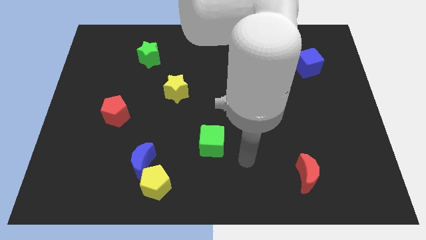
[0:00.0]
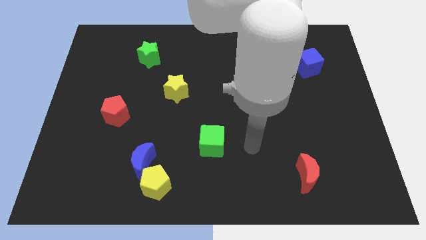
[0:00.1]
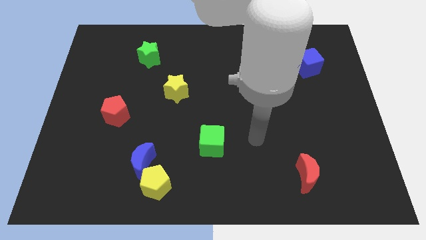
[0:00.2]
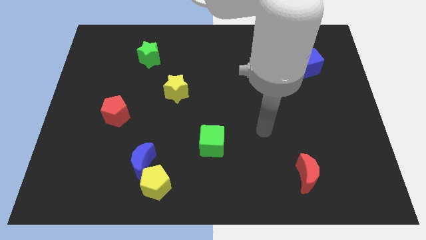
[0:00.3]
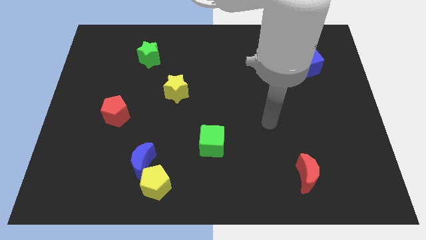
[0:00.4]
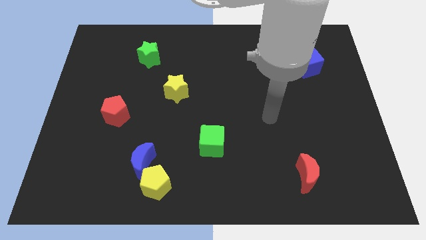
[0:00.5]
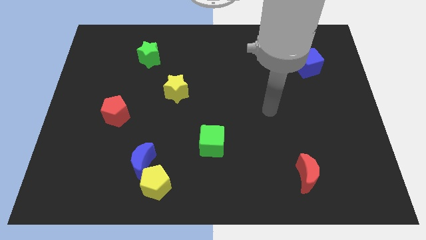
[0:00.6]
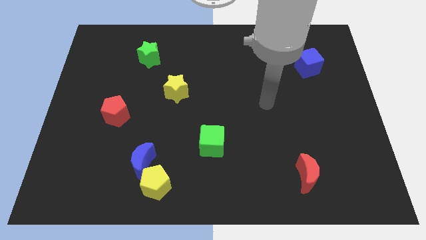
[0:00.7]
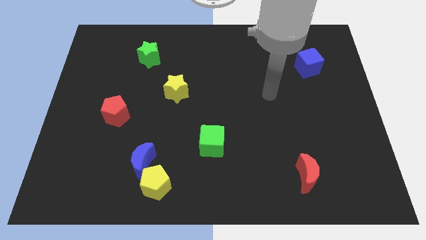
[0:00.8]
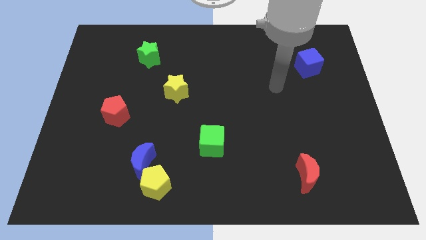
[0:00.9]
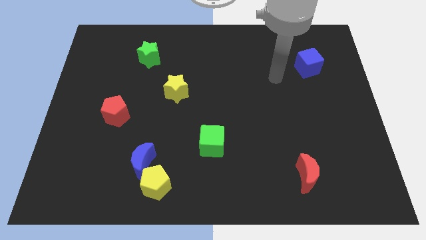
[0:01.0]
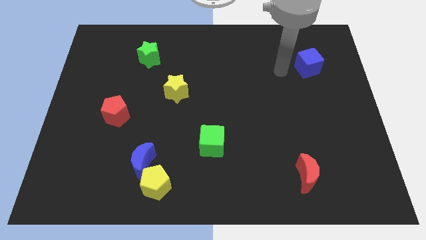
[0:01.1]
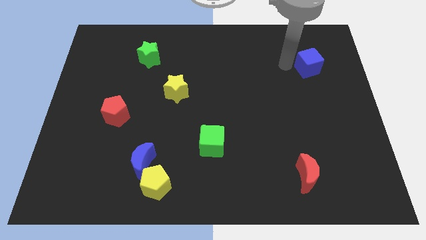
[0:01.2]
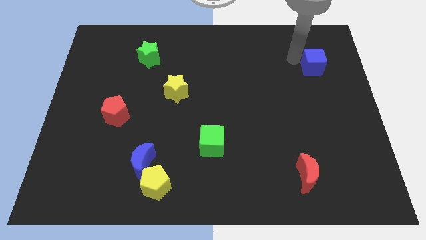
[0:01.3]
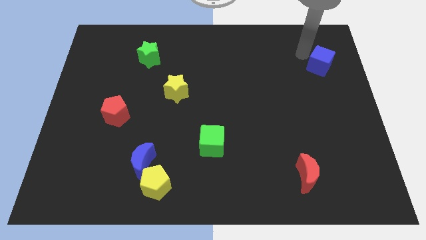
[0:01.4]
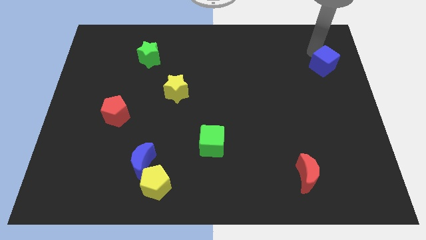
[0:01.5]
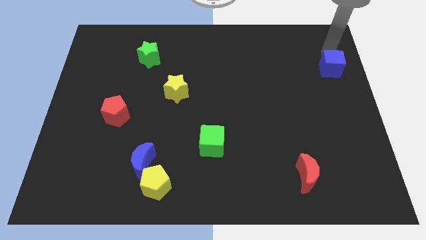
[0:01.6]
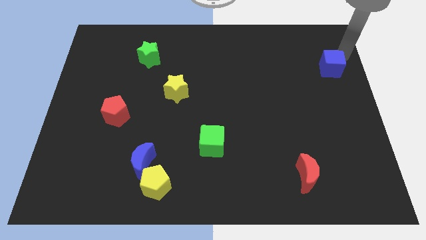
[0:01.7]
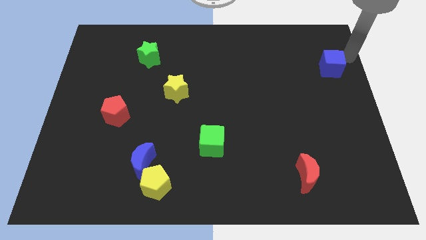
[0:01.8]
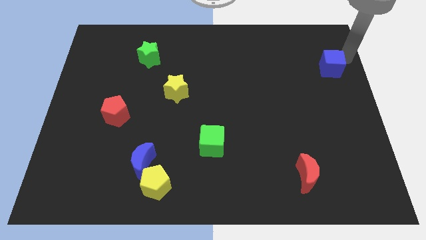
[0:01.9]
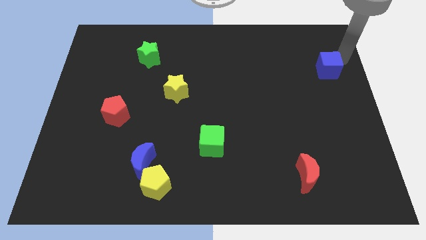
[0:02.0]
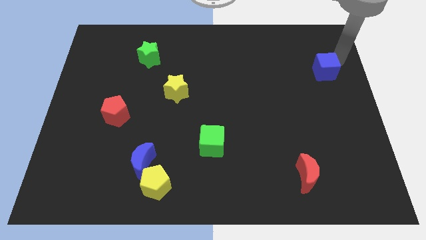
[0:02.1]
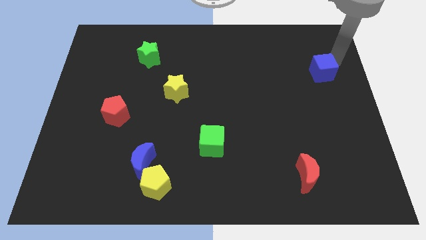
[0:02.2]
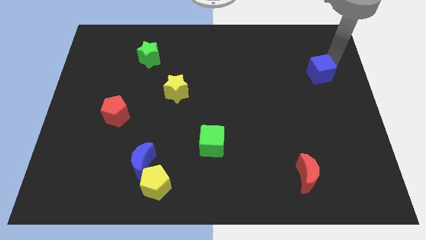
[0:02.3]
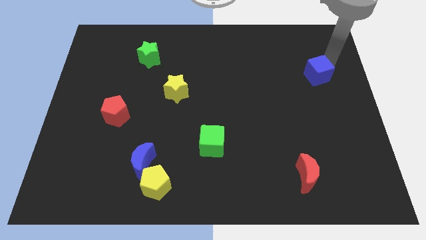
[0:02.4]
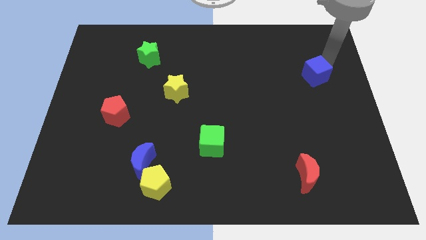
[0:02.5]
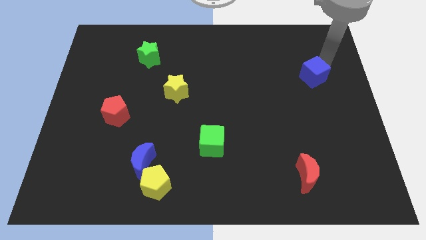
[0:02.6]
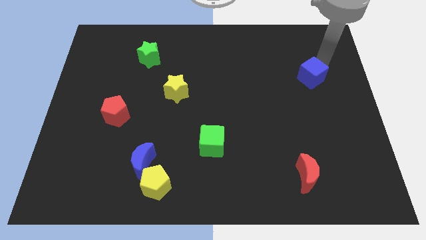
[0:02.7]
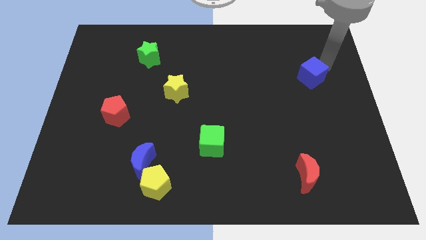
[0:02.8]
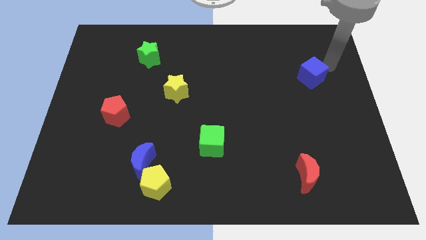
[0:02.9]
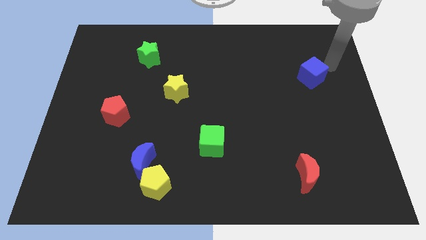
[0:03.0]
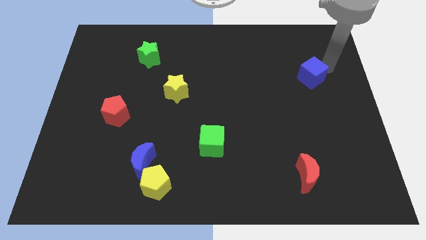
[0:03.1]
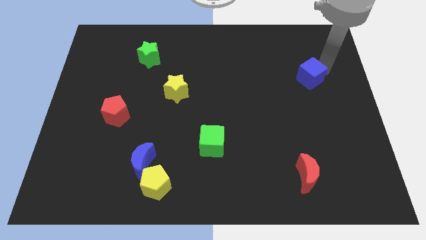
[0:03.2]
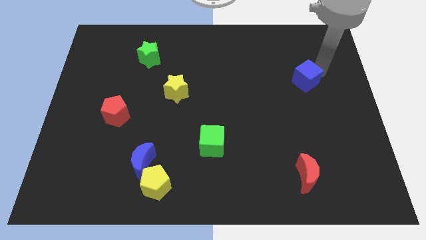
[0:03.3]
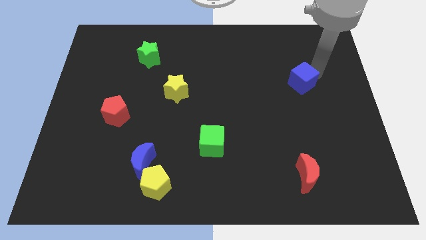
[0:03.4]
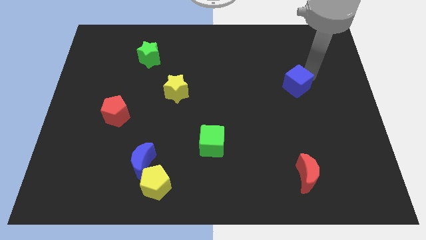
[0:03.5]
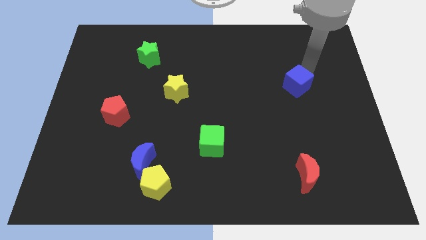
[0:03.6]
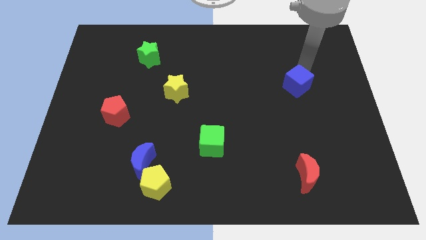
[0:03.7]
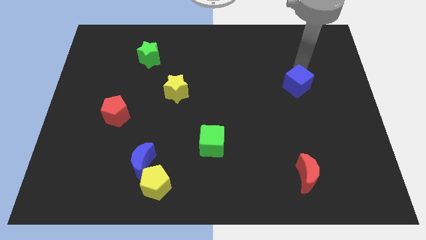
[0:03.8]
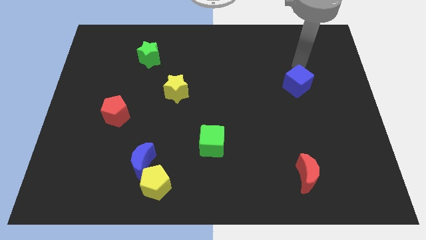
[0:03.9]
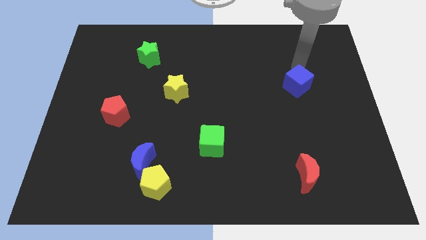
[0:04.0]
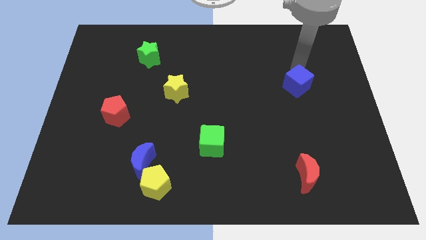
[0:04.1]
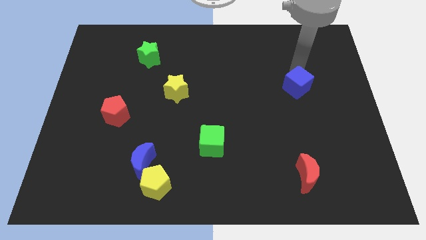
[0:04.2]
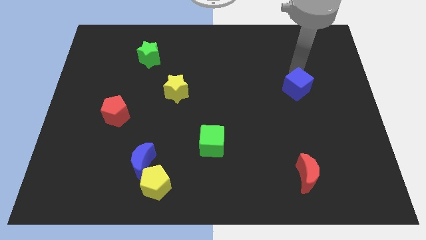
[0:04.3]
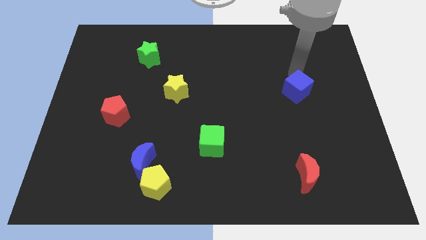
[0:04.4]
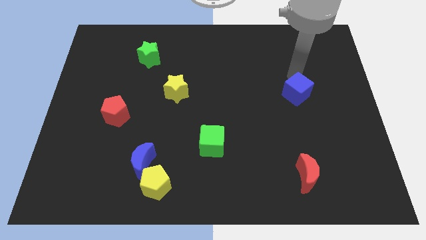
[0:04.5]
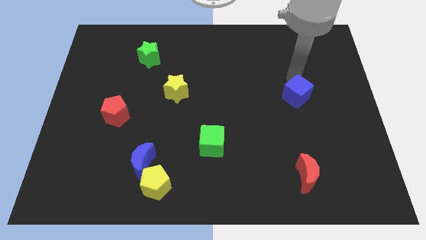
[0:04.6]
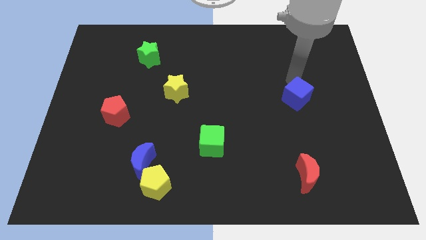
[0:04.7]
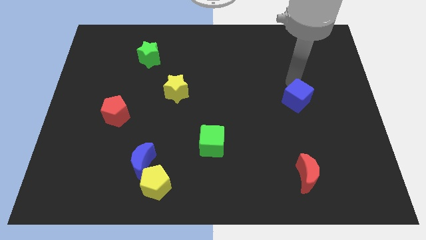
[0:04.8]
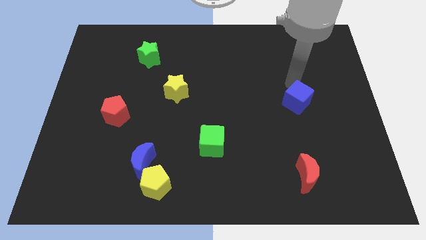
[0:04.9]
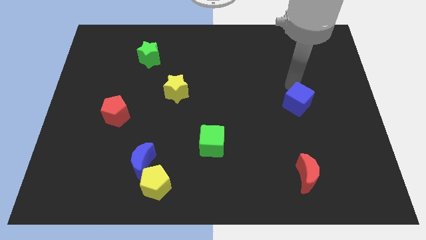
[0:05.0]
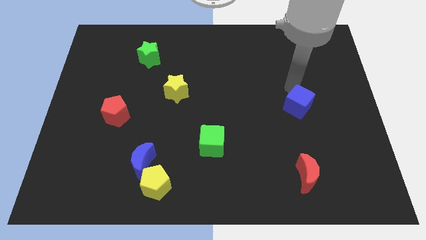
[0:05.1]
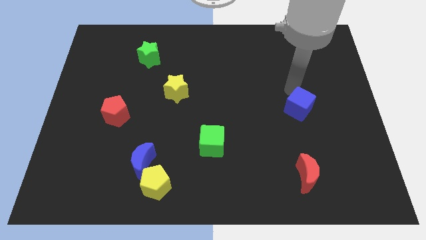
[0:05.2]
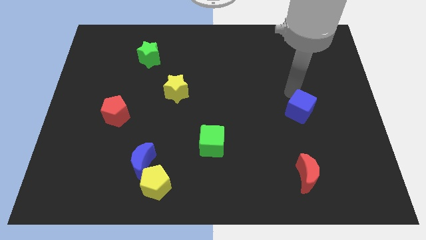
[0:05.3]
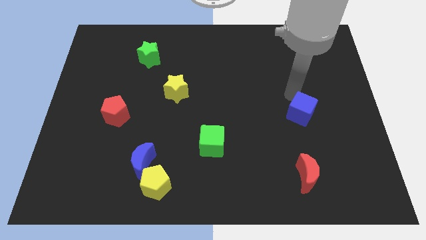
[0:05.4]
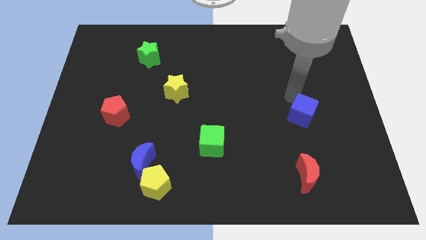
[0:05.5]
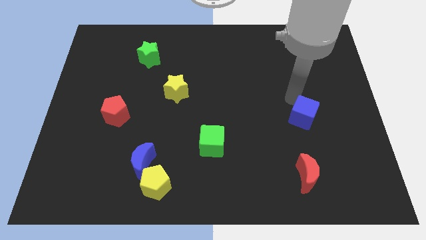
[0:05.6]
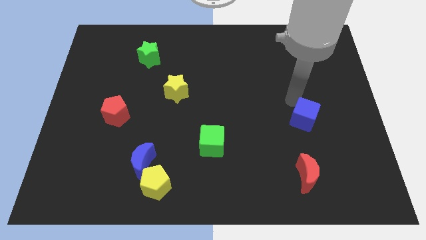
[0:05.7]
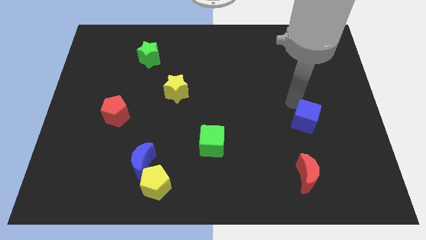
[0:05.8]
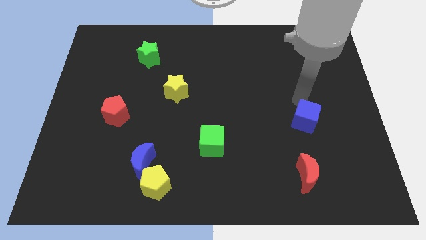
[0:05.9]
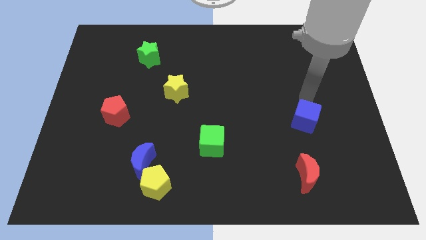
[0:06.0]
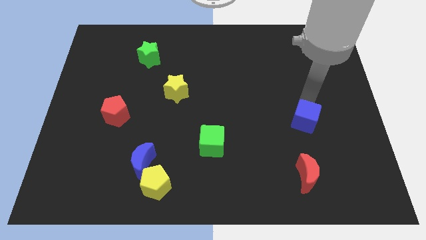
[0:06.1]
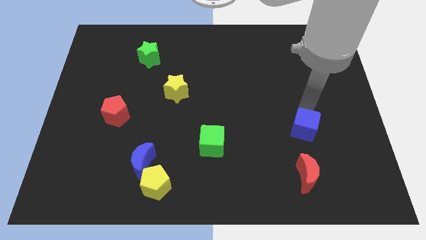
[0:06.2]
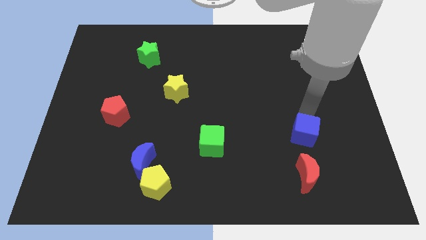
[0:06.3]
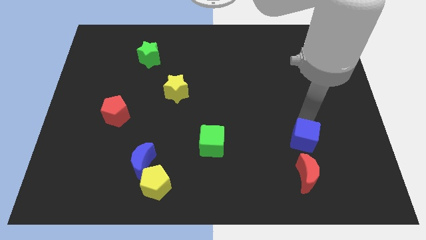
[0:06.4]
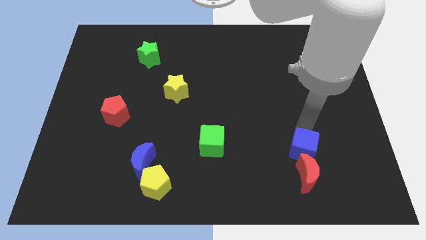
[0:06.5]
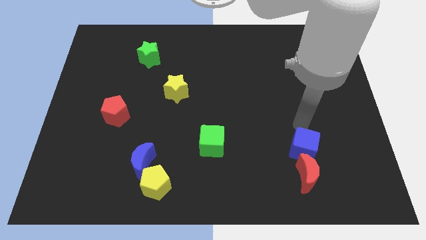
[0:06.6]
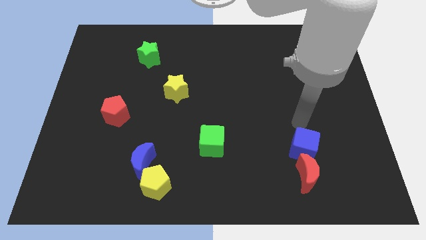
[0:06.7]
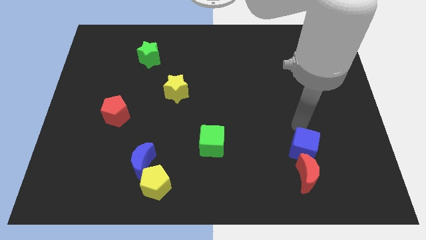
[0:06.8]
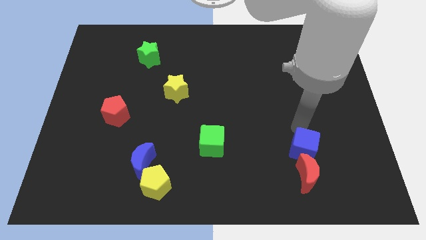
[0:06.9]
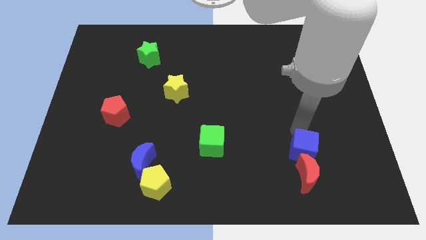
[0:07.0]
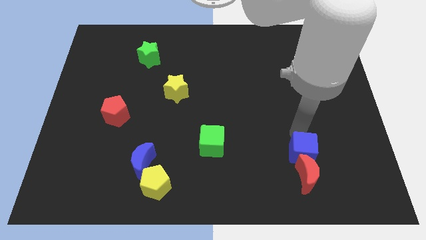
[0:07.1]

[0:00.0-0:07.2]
move the blue cube close to the red moon

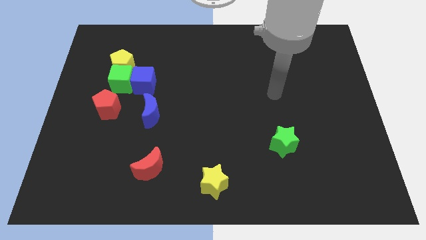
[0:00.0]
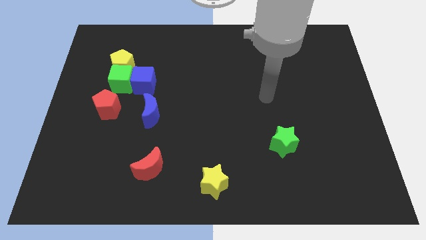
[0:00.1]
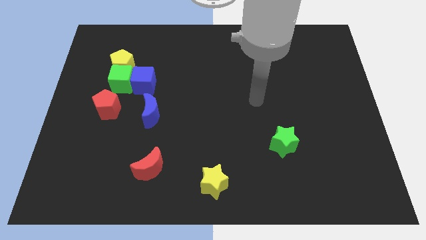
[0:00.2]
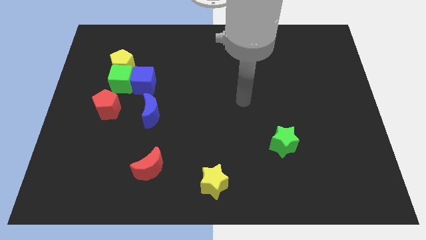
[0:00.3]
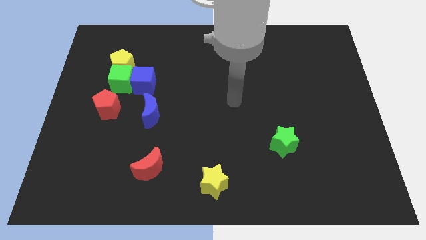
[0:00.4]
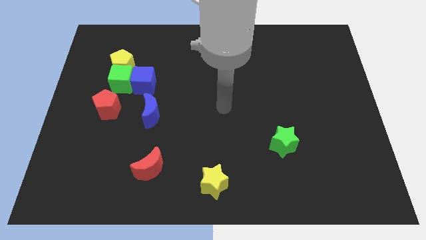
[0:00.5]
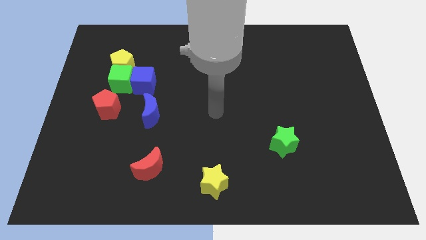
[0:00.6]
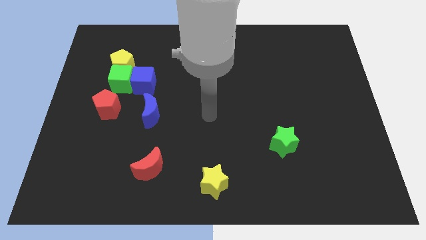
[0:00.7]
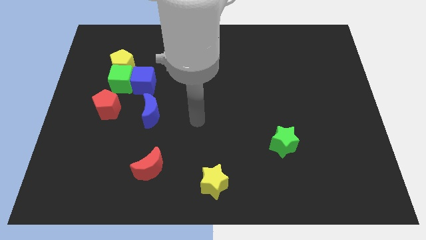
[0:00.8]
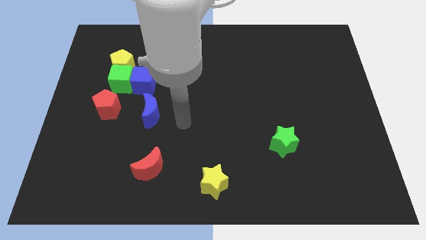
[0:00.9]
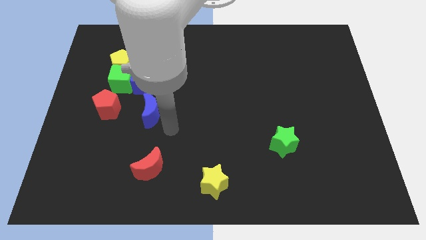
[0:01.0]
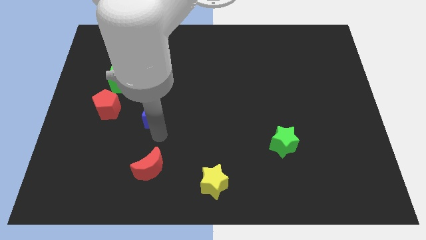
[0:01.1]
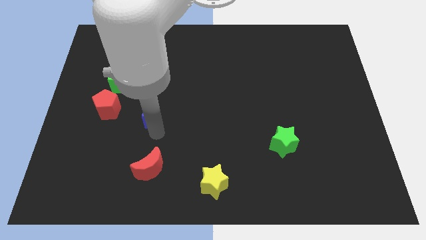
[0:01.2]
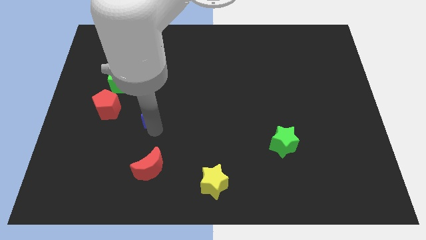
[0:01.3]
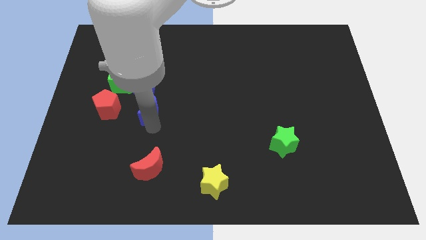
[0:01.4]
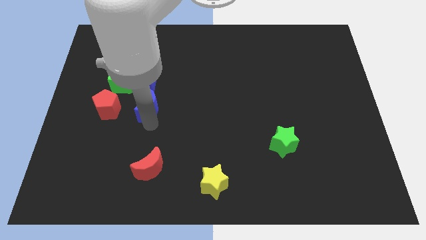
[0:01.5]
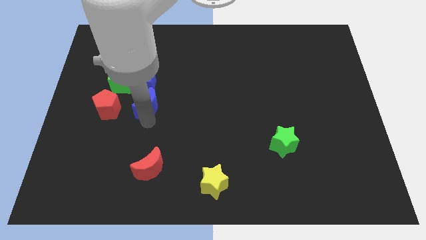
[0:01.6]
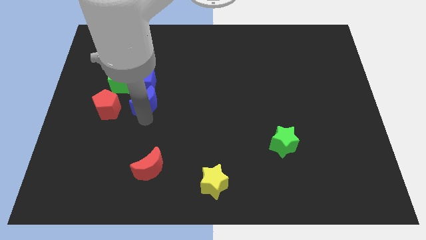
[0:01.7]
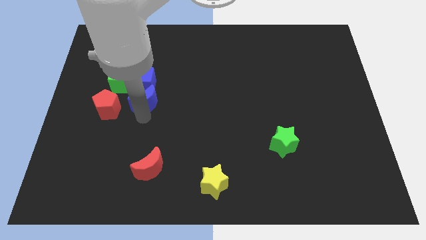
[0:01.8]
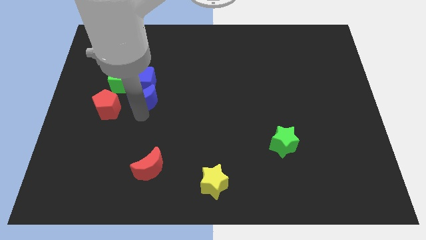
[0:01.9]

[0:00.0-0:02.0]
move the blue moon next to the blue cube
